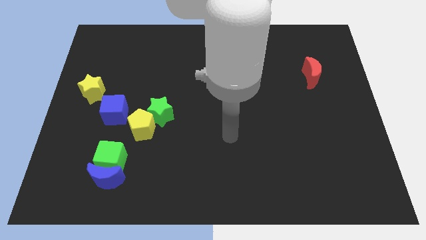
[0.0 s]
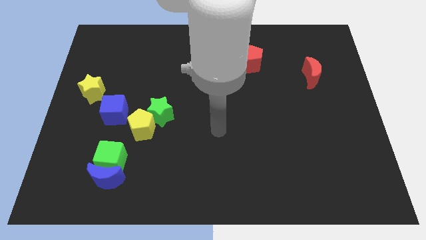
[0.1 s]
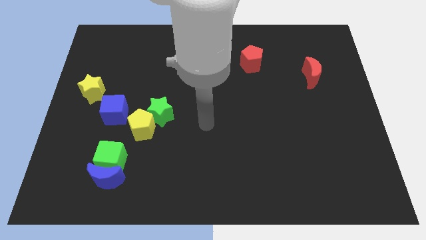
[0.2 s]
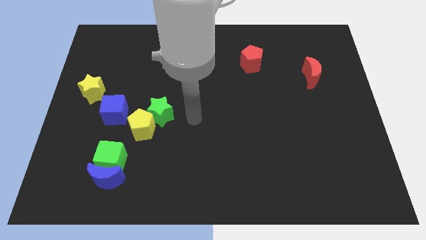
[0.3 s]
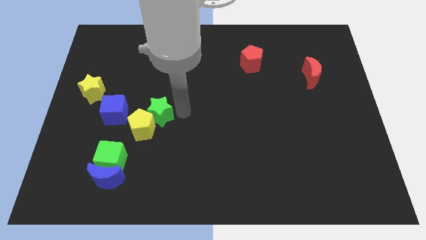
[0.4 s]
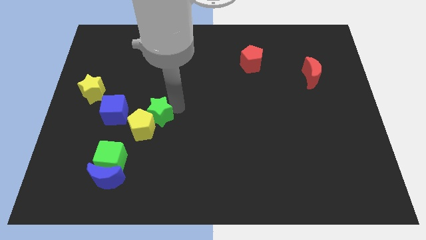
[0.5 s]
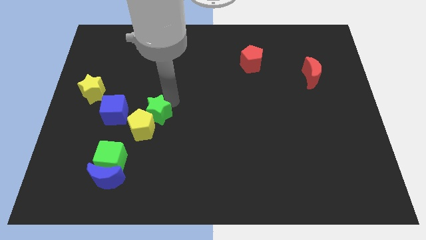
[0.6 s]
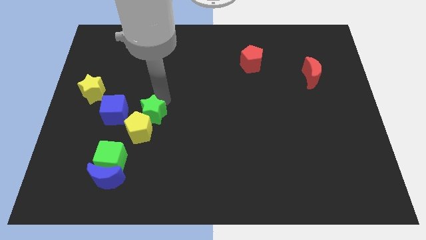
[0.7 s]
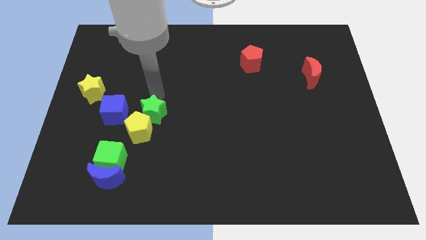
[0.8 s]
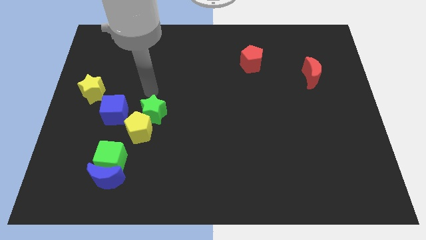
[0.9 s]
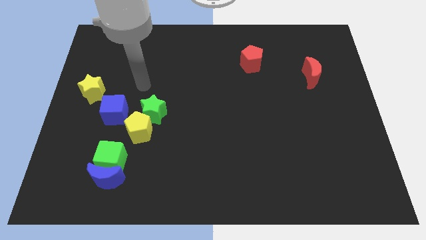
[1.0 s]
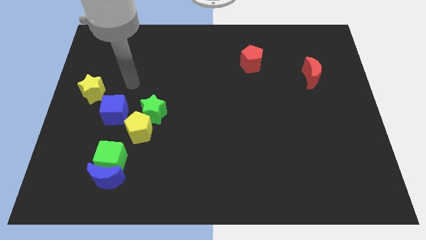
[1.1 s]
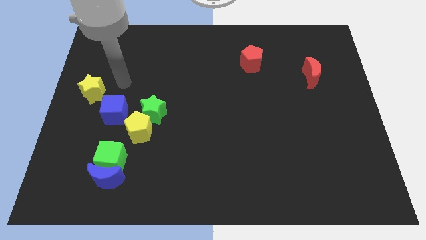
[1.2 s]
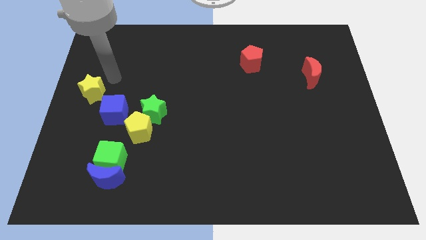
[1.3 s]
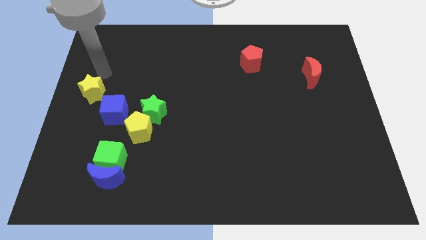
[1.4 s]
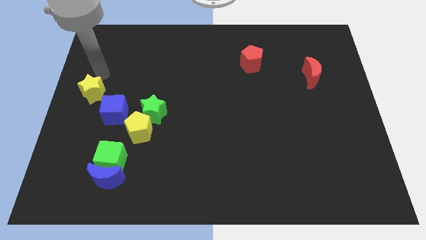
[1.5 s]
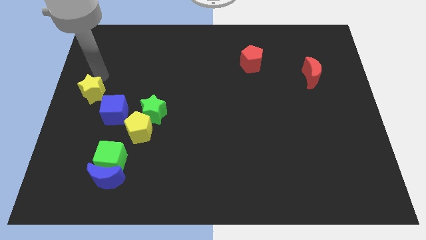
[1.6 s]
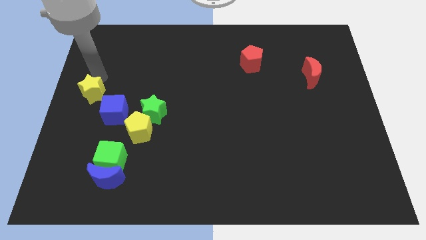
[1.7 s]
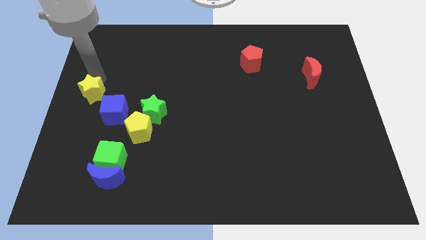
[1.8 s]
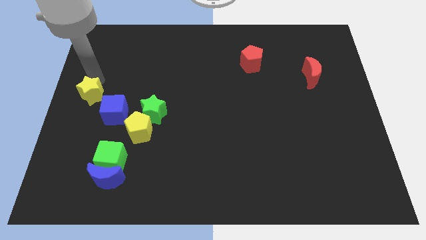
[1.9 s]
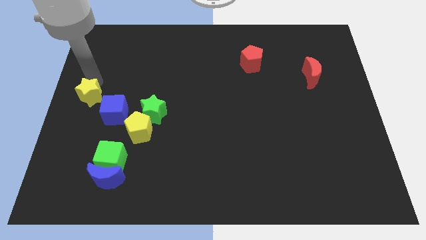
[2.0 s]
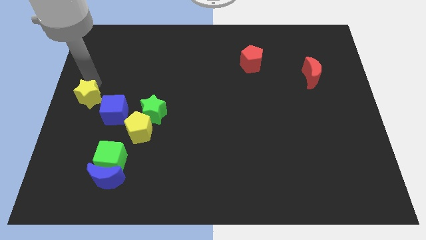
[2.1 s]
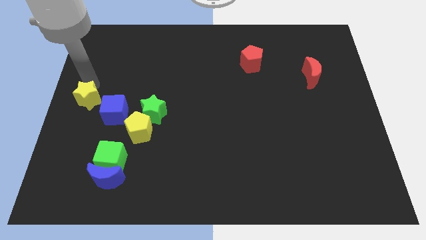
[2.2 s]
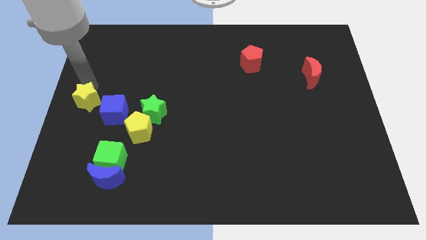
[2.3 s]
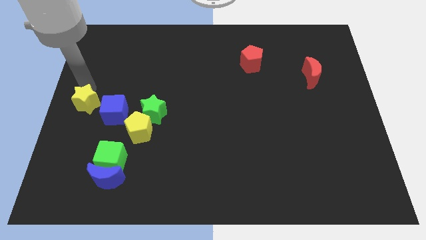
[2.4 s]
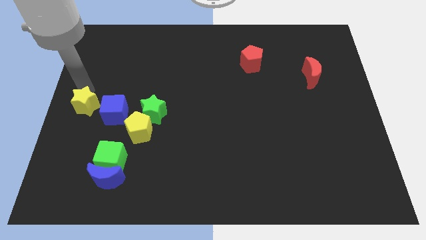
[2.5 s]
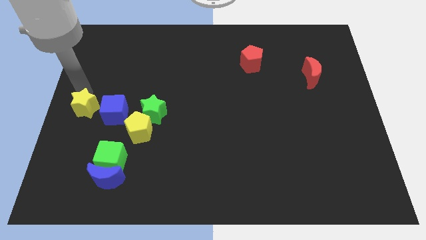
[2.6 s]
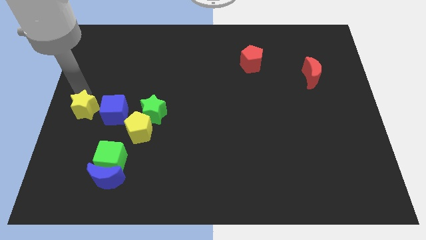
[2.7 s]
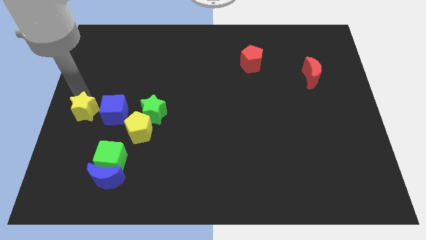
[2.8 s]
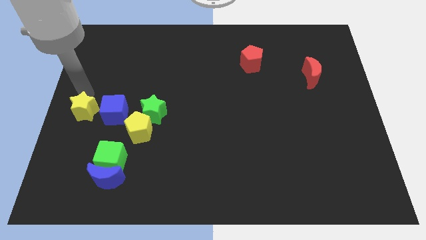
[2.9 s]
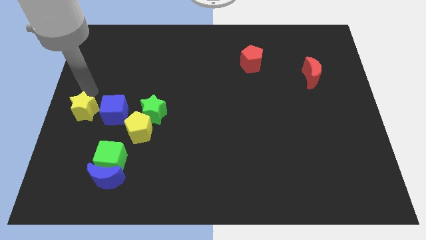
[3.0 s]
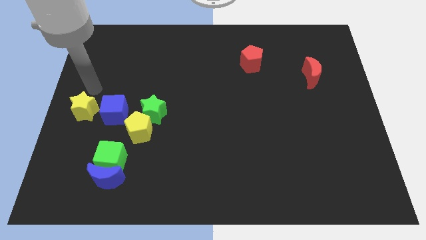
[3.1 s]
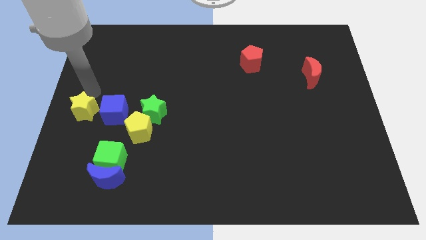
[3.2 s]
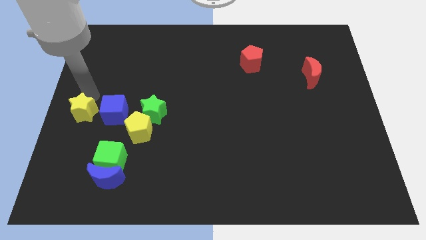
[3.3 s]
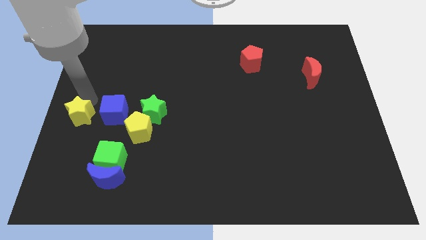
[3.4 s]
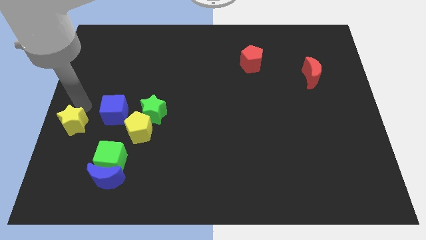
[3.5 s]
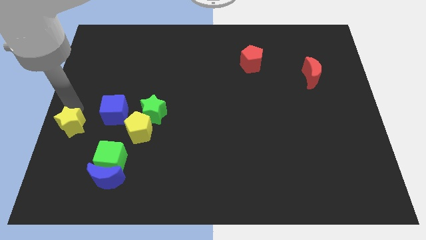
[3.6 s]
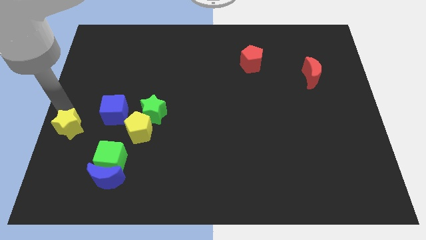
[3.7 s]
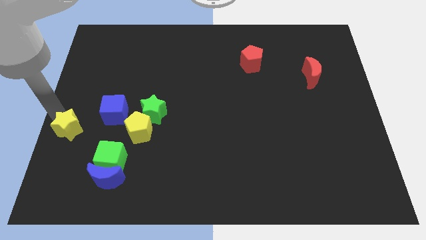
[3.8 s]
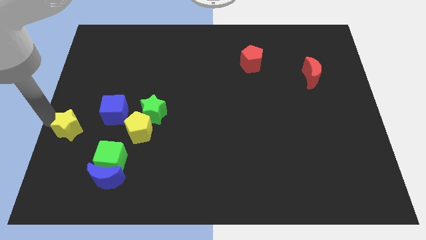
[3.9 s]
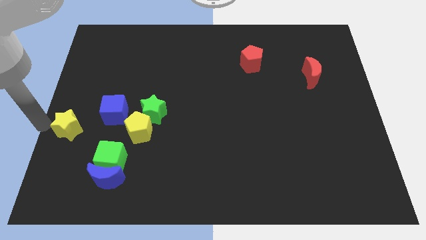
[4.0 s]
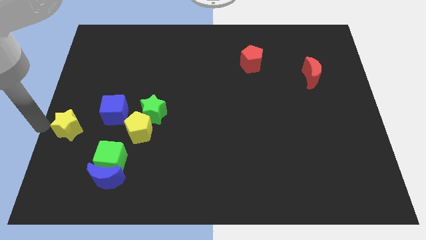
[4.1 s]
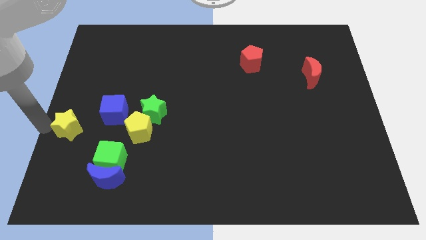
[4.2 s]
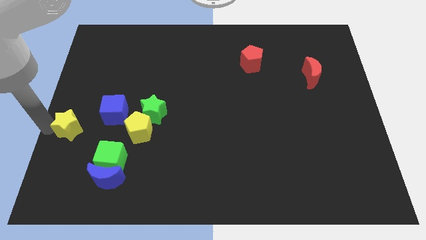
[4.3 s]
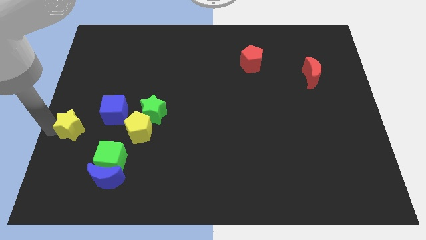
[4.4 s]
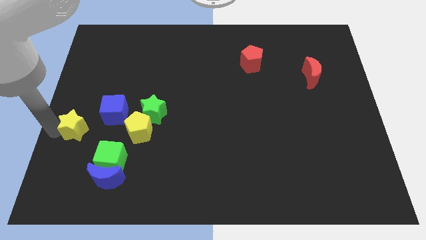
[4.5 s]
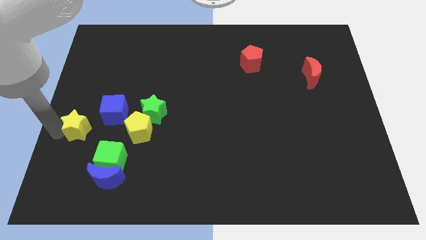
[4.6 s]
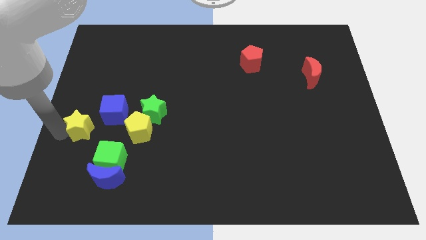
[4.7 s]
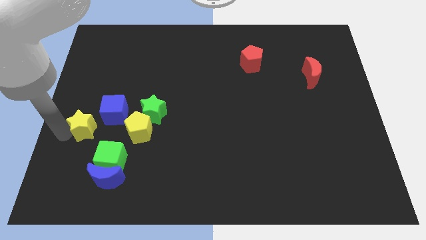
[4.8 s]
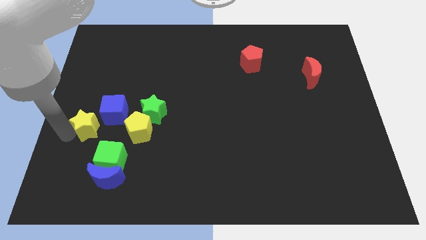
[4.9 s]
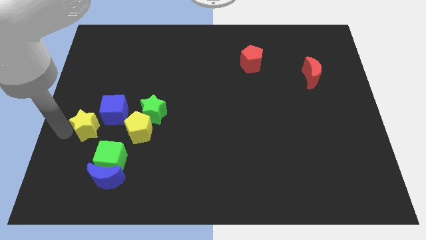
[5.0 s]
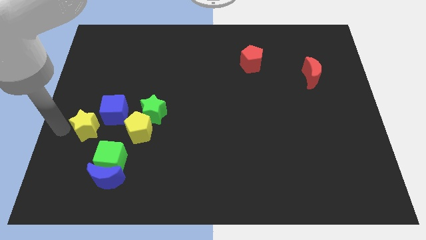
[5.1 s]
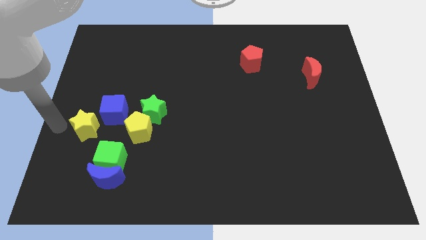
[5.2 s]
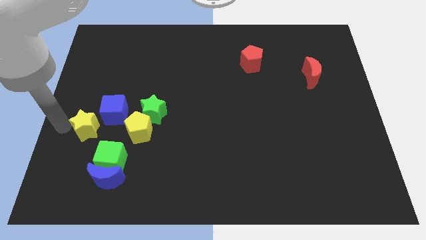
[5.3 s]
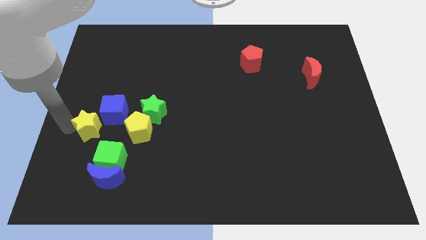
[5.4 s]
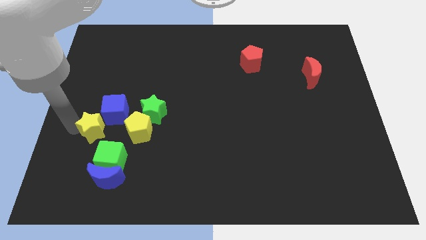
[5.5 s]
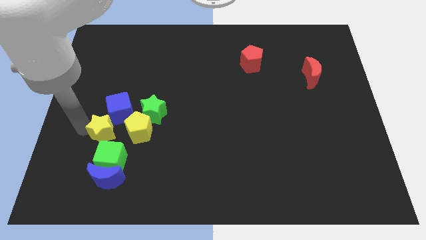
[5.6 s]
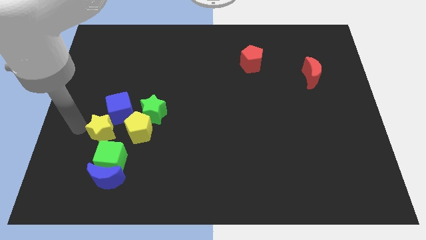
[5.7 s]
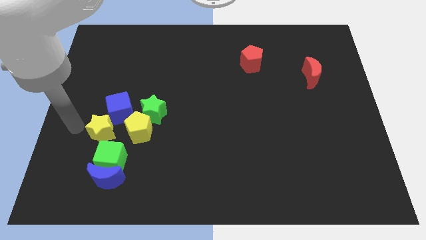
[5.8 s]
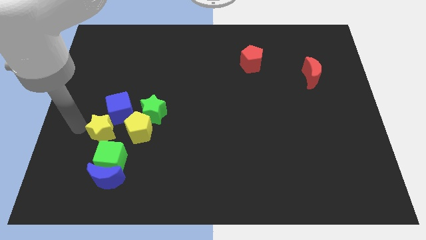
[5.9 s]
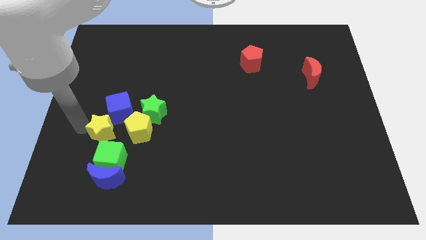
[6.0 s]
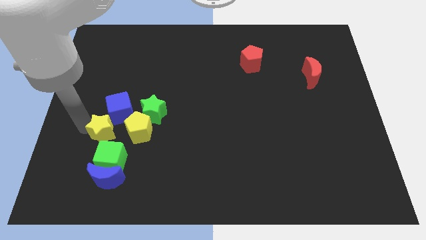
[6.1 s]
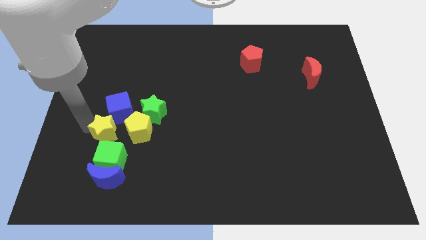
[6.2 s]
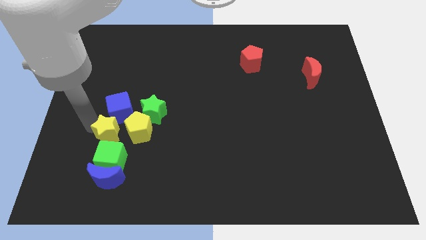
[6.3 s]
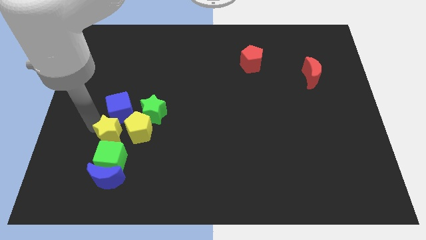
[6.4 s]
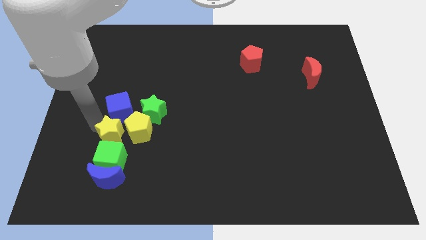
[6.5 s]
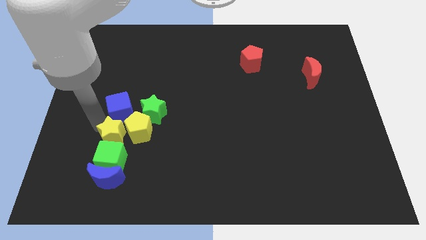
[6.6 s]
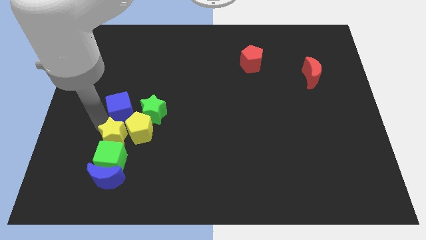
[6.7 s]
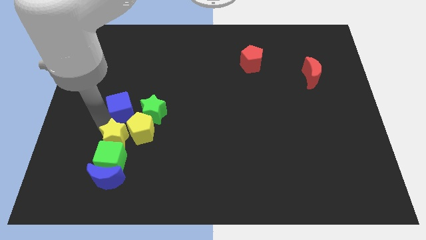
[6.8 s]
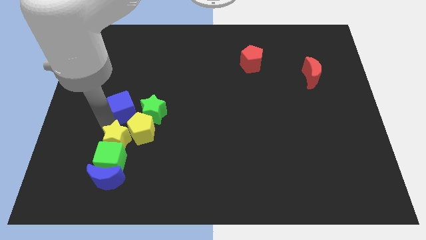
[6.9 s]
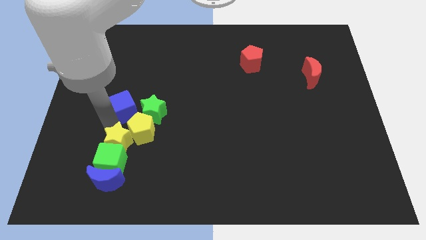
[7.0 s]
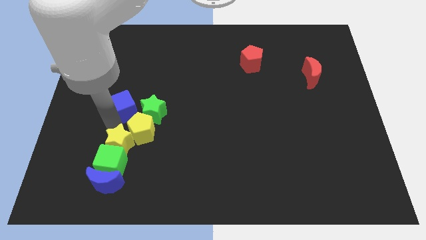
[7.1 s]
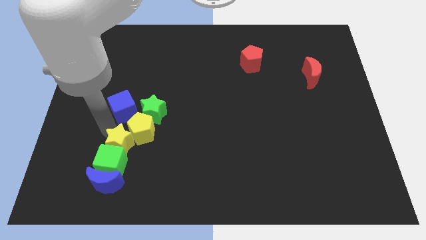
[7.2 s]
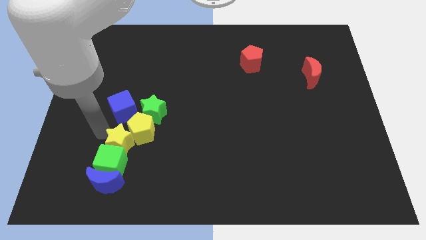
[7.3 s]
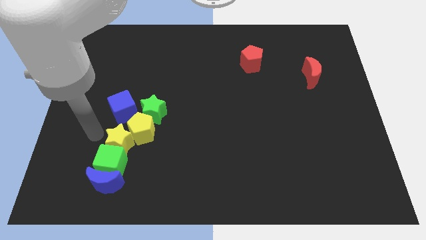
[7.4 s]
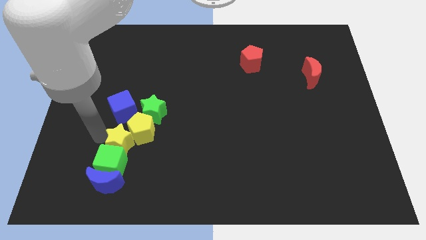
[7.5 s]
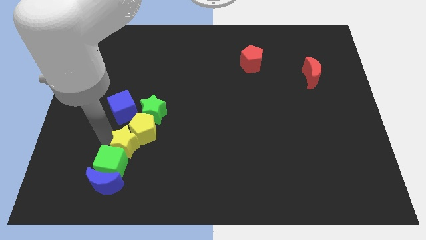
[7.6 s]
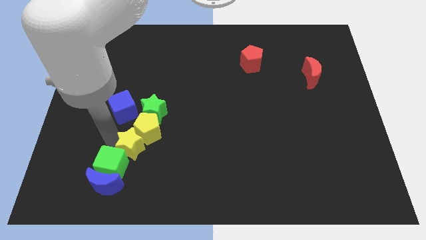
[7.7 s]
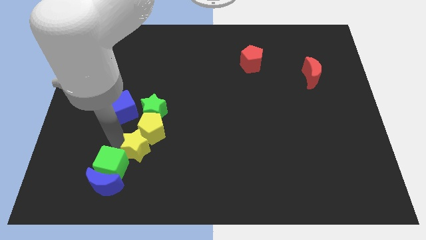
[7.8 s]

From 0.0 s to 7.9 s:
move the yellow star down and right

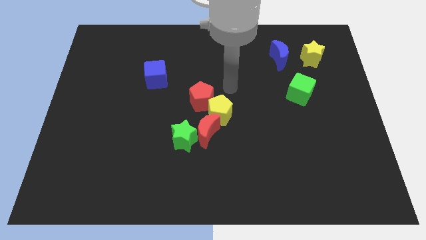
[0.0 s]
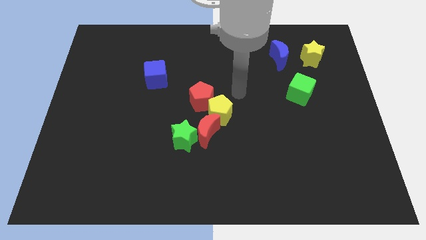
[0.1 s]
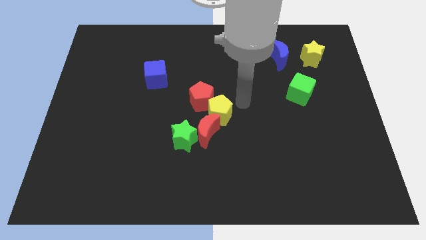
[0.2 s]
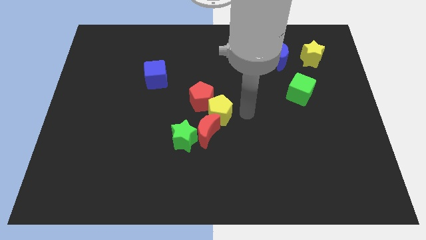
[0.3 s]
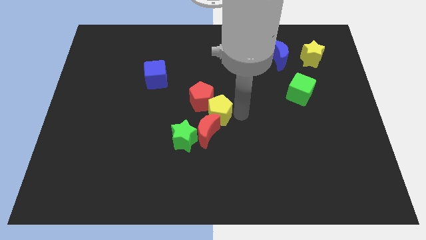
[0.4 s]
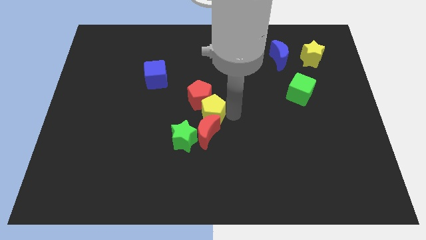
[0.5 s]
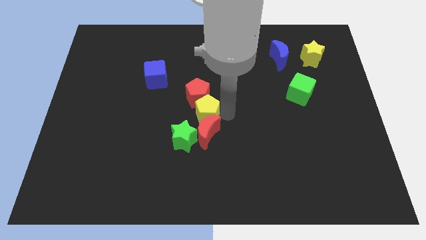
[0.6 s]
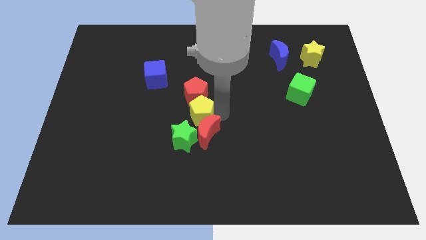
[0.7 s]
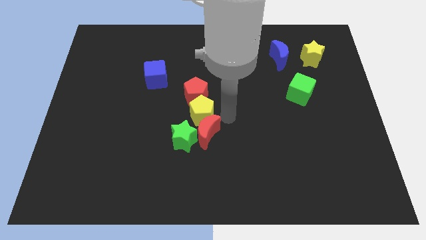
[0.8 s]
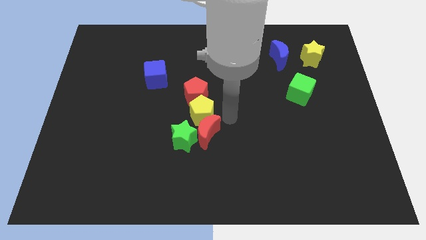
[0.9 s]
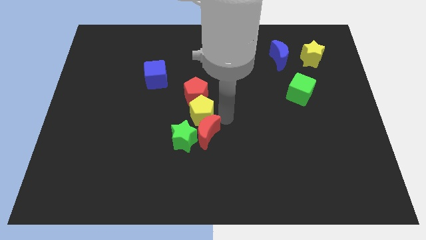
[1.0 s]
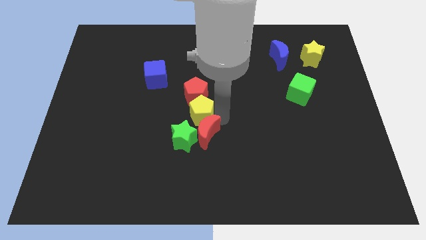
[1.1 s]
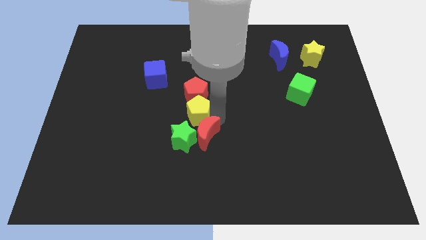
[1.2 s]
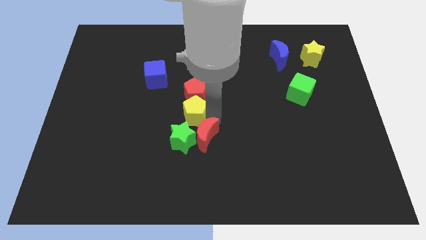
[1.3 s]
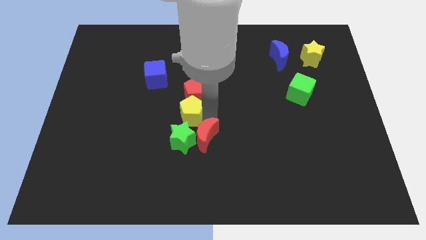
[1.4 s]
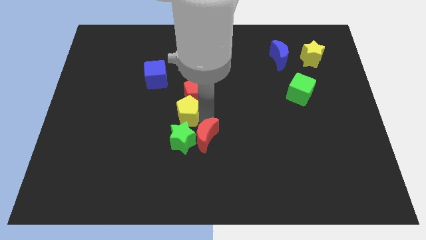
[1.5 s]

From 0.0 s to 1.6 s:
slightly move the yellow pentagon left
